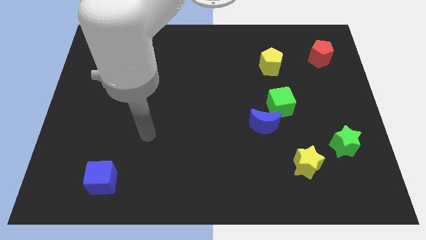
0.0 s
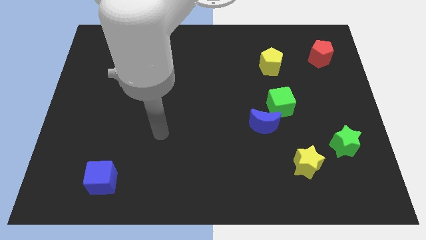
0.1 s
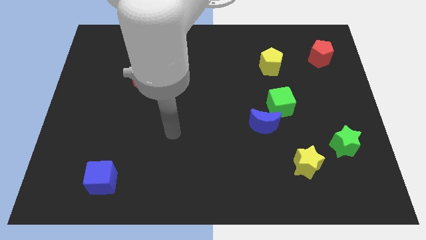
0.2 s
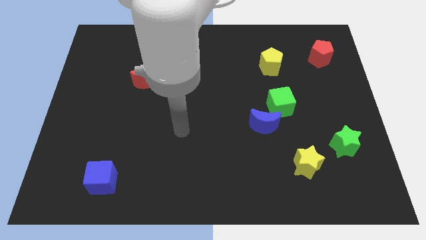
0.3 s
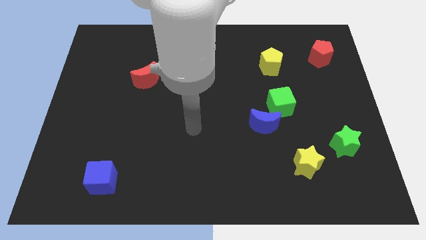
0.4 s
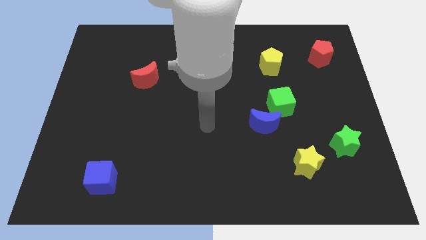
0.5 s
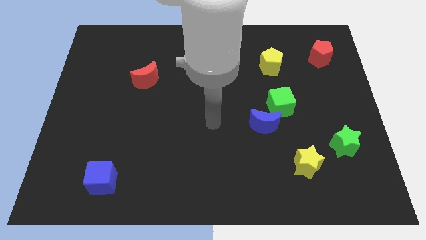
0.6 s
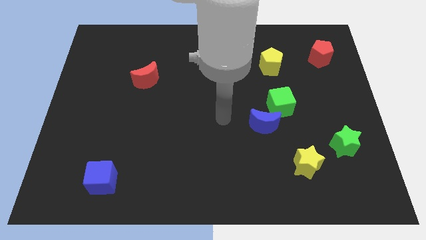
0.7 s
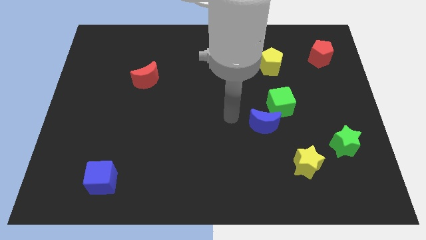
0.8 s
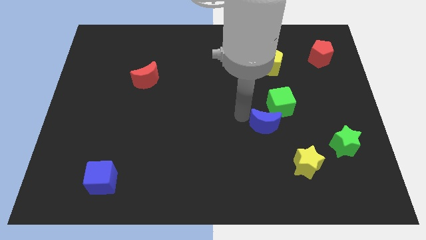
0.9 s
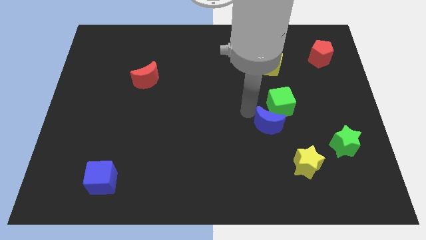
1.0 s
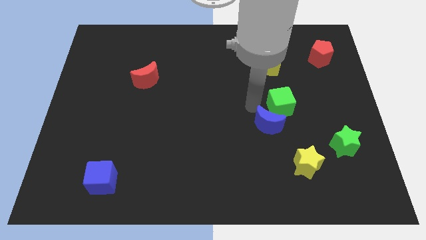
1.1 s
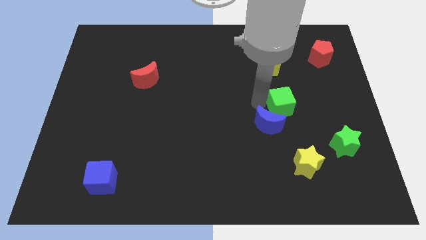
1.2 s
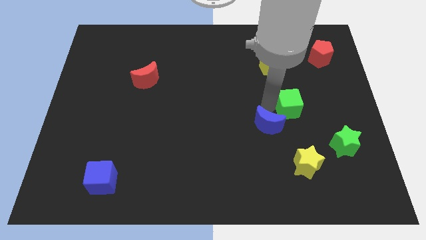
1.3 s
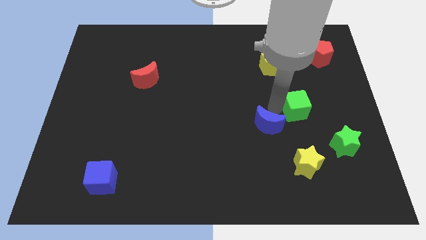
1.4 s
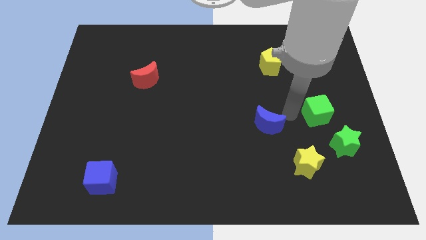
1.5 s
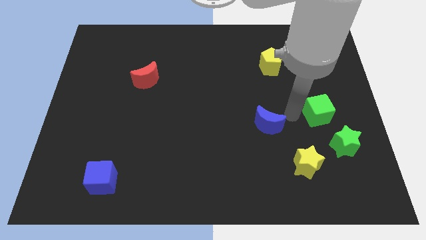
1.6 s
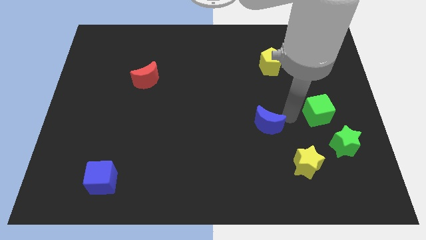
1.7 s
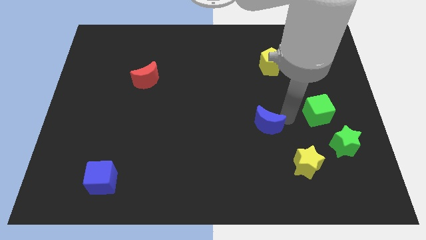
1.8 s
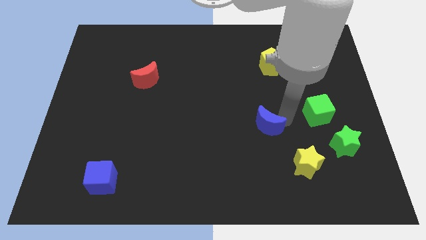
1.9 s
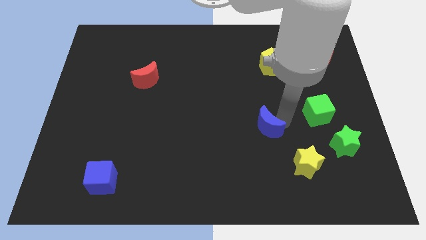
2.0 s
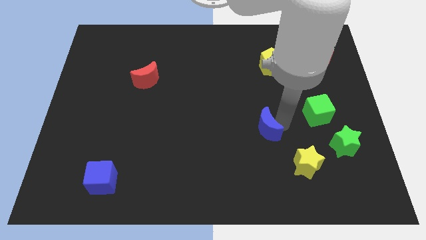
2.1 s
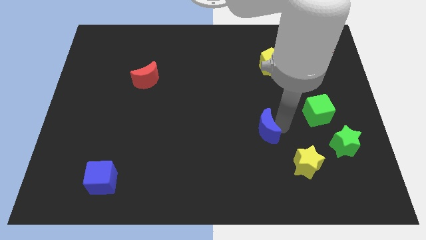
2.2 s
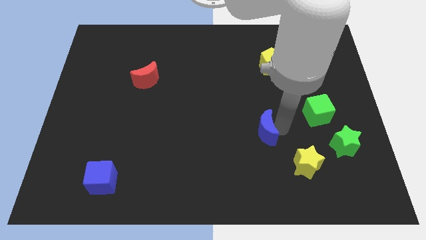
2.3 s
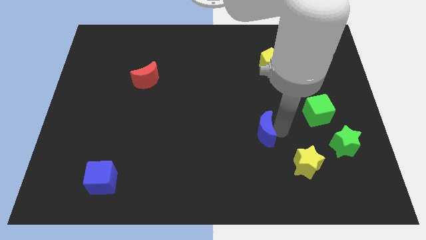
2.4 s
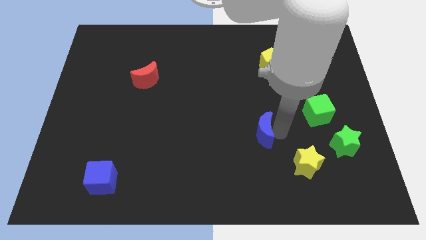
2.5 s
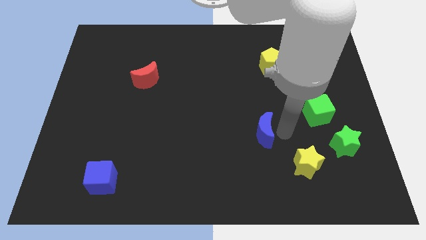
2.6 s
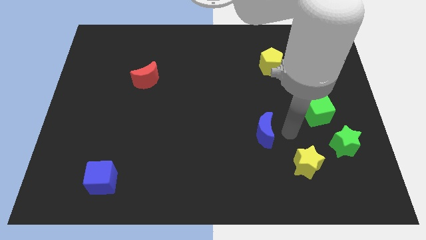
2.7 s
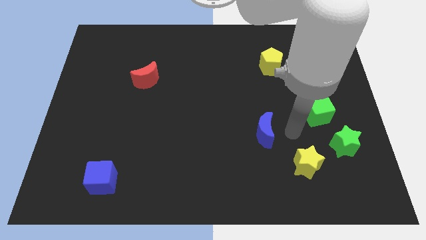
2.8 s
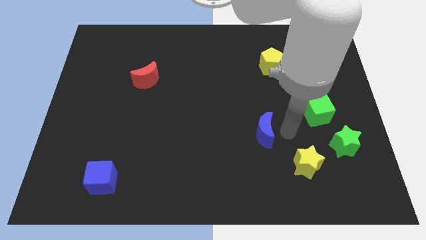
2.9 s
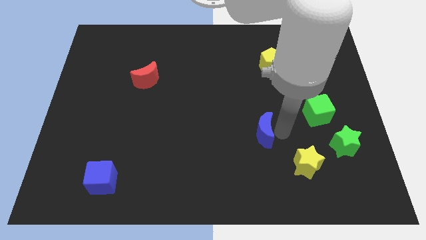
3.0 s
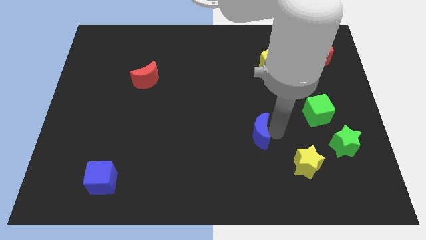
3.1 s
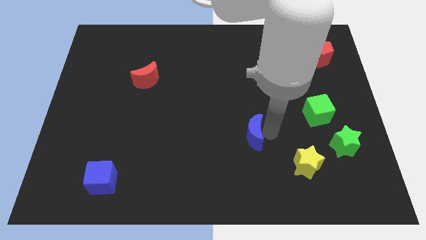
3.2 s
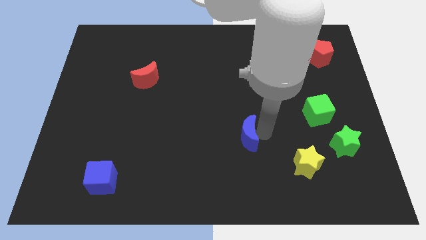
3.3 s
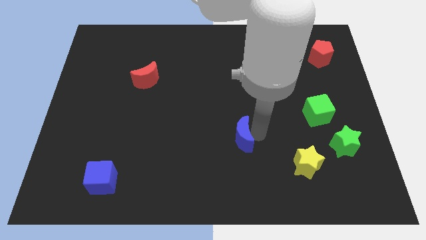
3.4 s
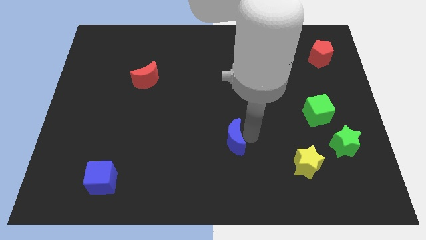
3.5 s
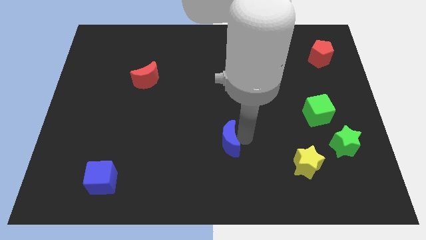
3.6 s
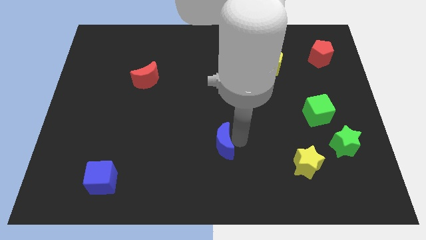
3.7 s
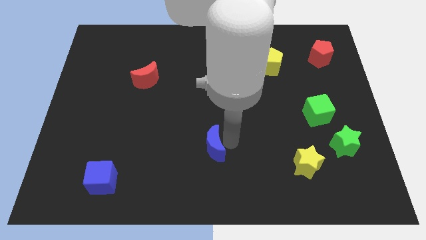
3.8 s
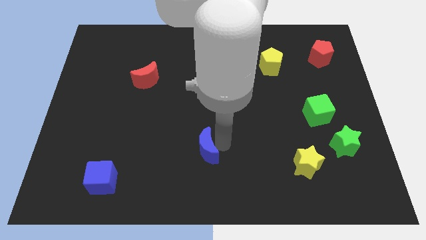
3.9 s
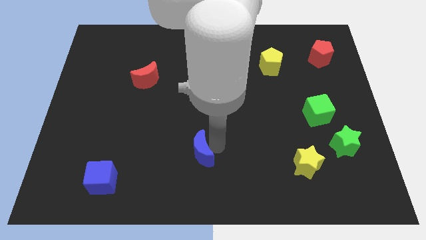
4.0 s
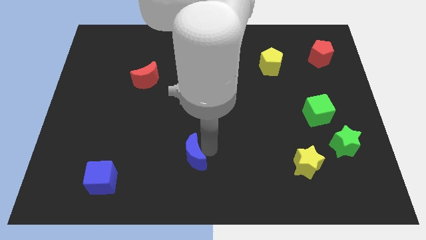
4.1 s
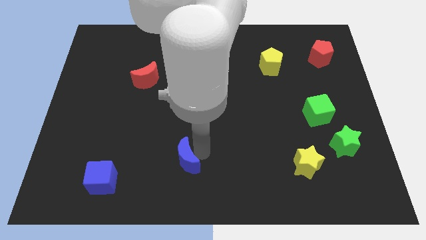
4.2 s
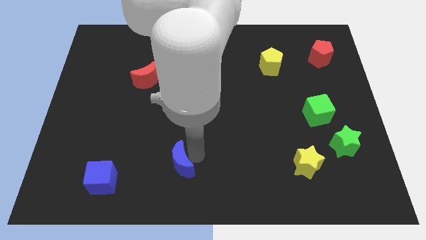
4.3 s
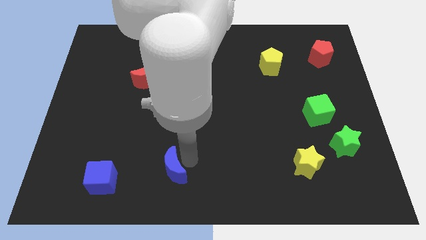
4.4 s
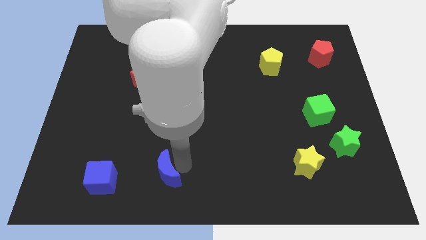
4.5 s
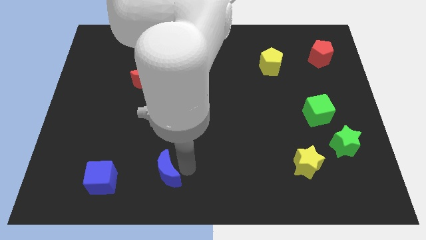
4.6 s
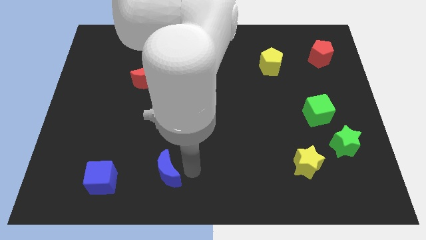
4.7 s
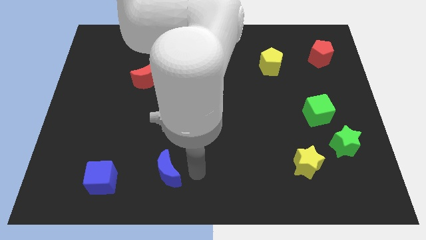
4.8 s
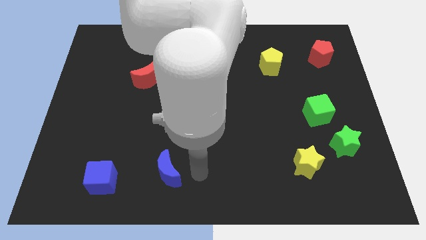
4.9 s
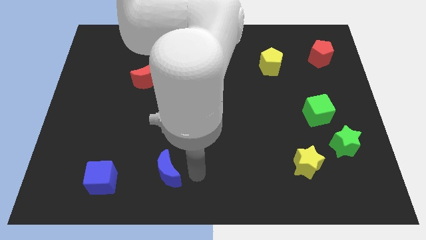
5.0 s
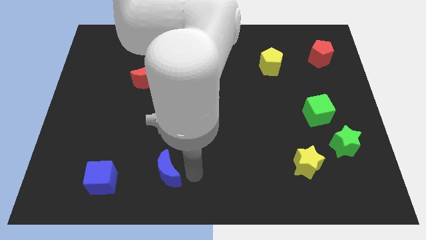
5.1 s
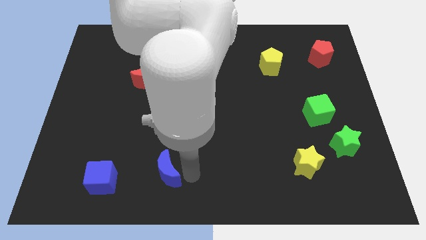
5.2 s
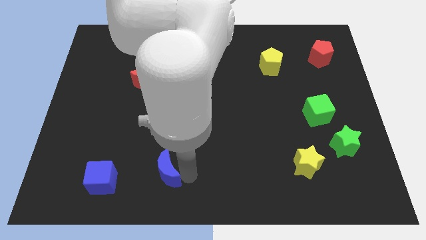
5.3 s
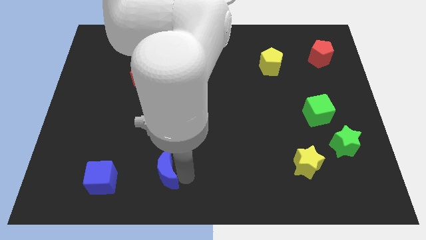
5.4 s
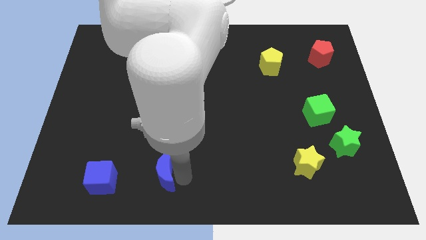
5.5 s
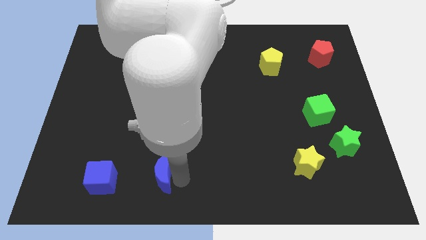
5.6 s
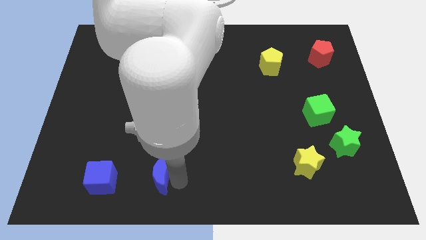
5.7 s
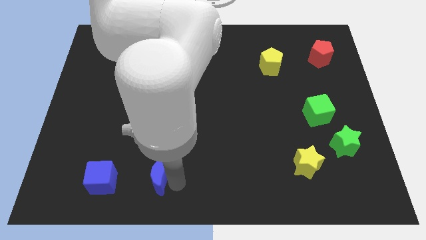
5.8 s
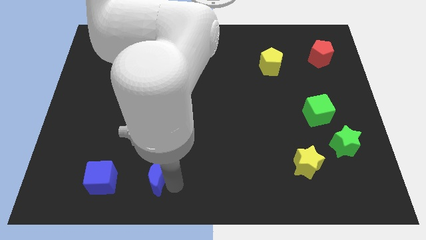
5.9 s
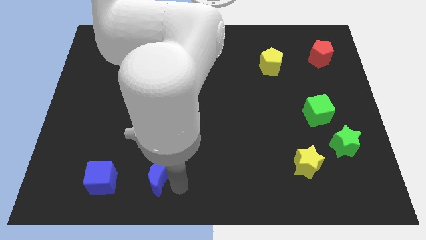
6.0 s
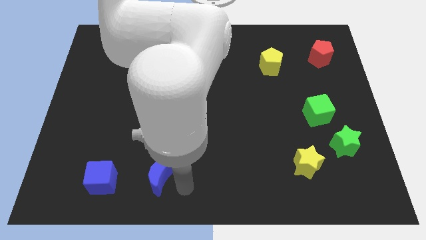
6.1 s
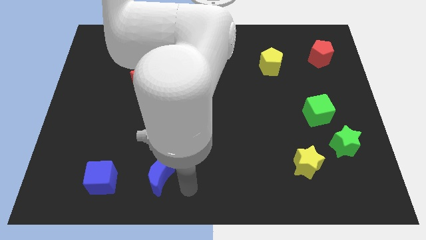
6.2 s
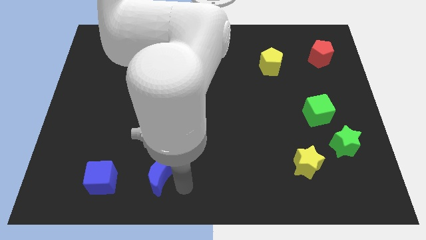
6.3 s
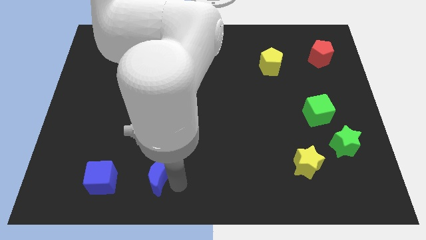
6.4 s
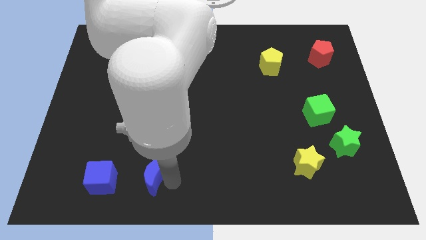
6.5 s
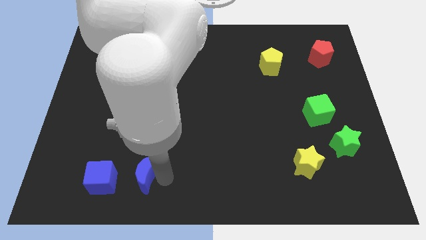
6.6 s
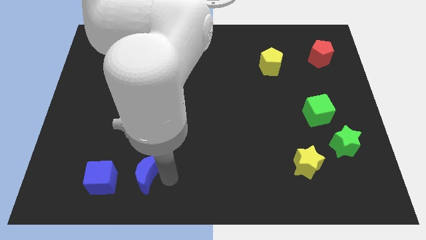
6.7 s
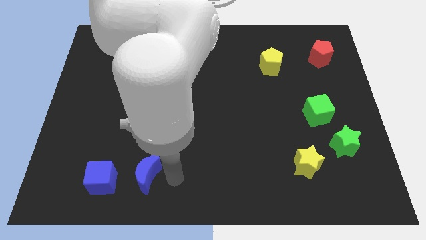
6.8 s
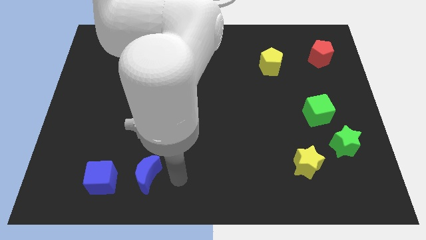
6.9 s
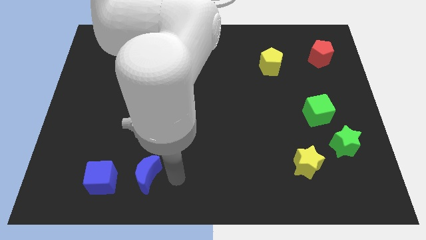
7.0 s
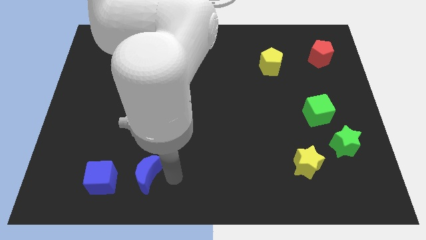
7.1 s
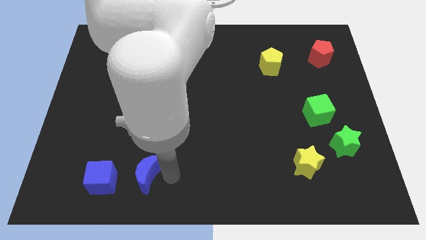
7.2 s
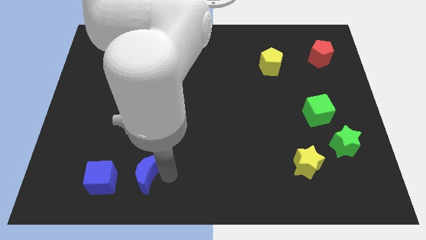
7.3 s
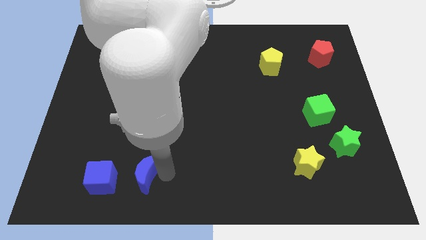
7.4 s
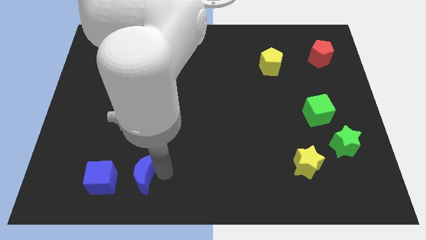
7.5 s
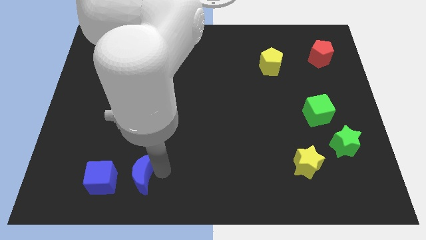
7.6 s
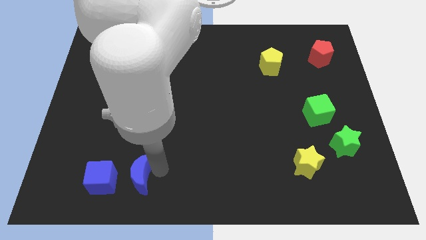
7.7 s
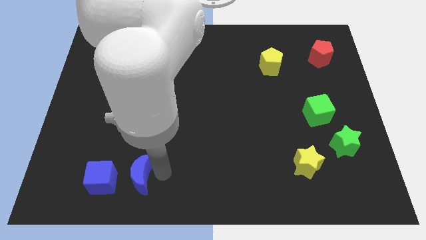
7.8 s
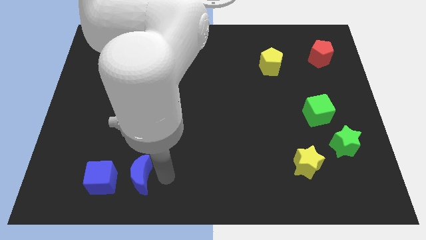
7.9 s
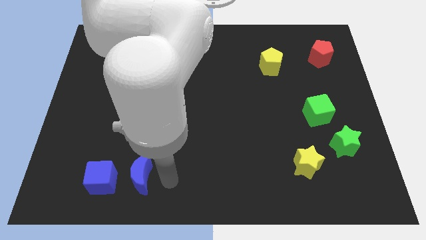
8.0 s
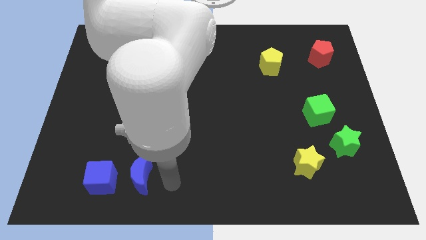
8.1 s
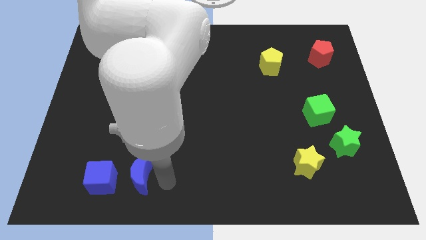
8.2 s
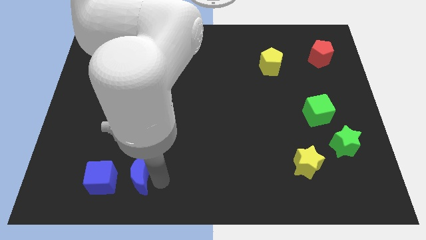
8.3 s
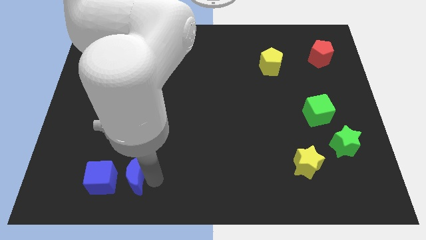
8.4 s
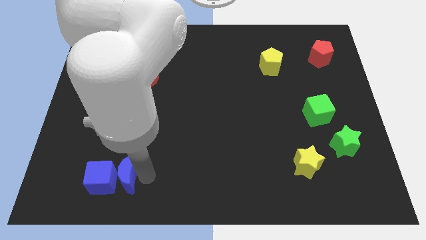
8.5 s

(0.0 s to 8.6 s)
slide the blue moon next to the blue cube
